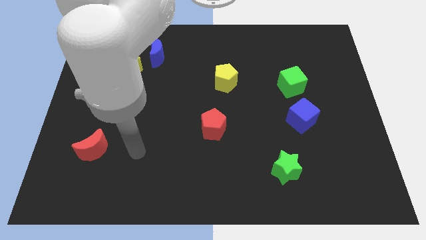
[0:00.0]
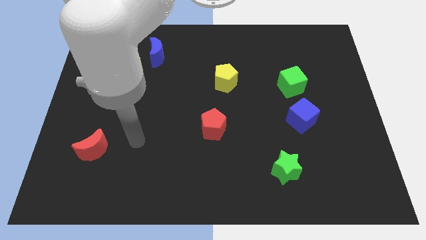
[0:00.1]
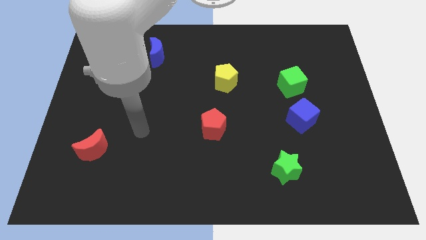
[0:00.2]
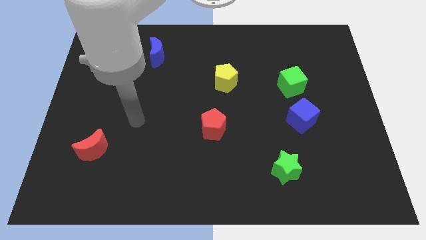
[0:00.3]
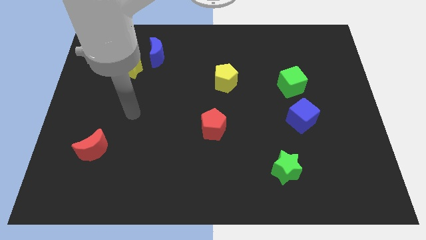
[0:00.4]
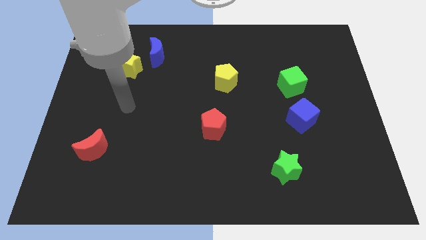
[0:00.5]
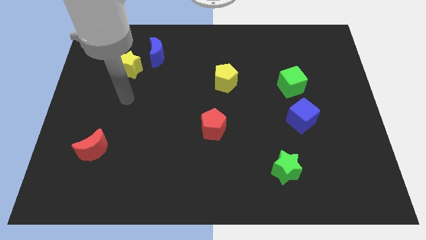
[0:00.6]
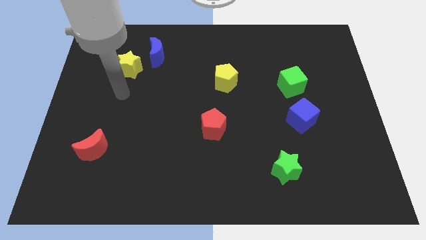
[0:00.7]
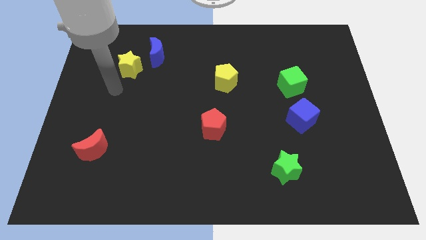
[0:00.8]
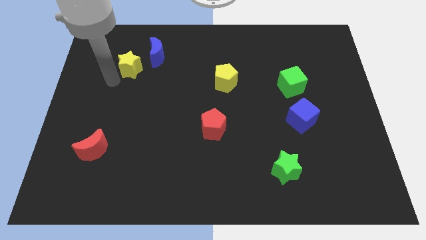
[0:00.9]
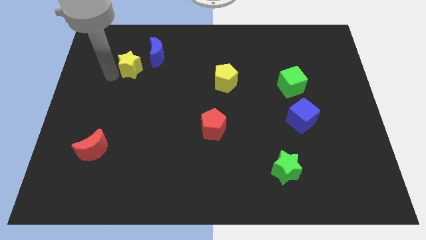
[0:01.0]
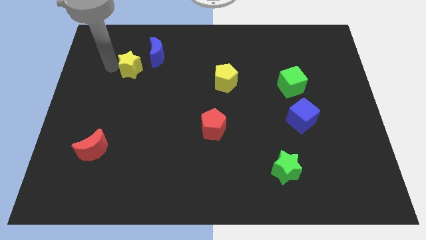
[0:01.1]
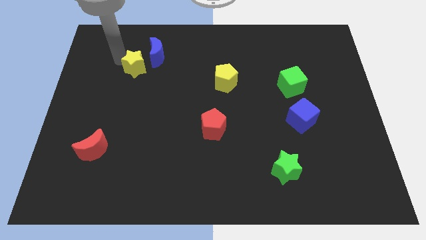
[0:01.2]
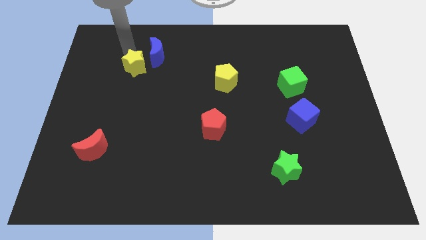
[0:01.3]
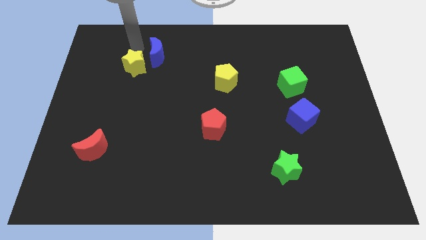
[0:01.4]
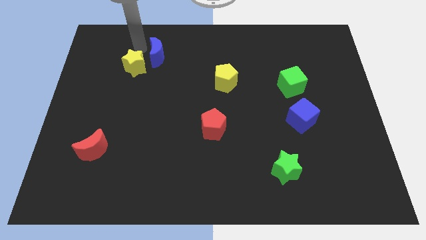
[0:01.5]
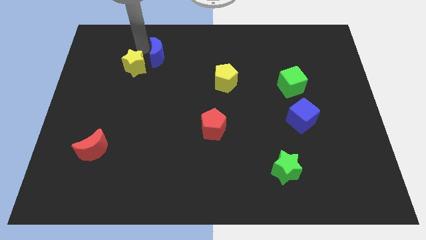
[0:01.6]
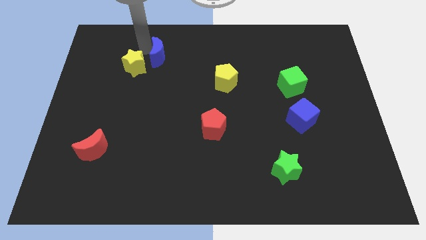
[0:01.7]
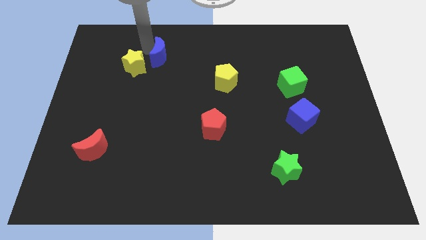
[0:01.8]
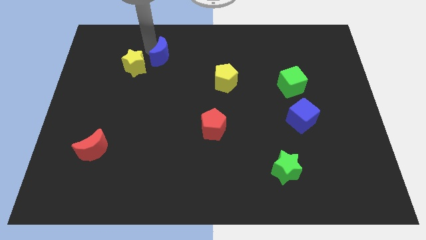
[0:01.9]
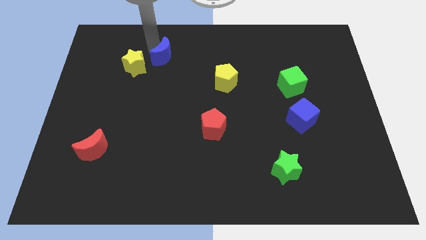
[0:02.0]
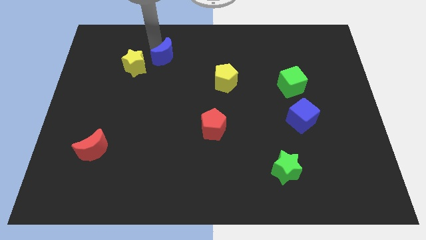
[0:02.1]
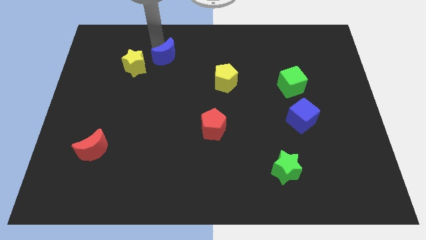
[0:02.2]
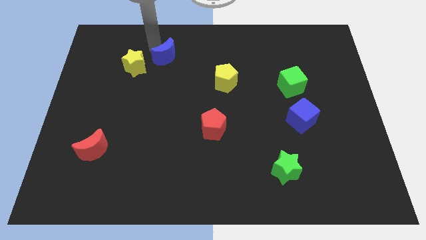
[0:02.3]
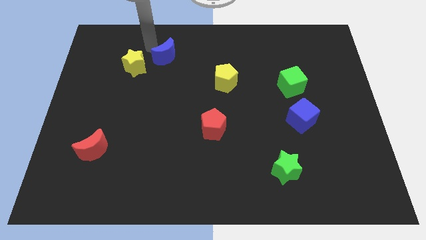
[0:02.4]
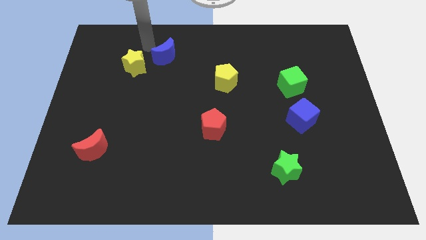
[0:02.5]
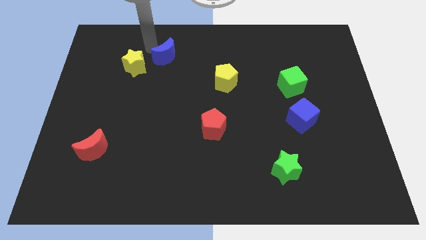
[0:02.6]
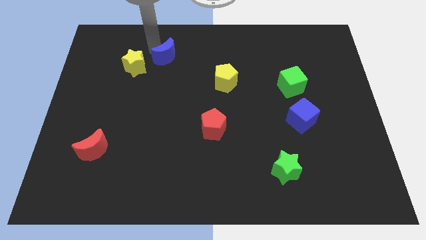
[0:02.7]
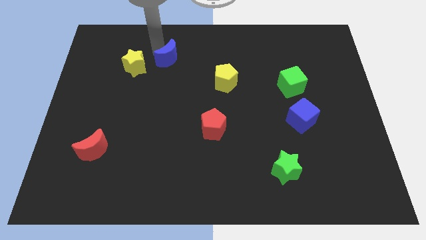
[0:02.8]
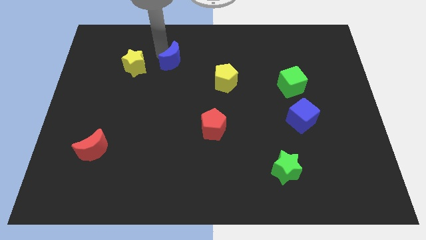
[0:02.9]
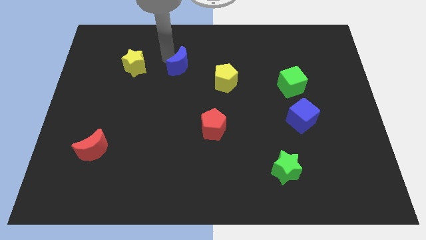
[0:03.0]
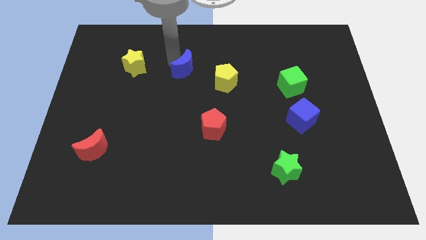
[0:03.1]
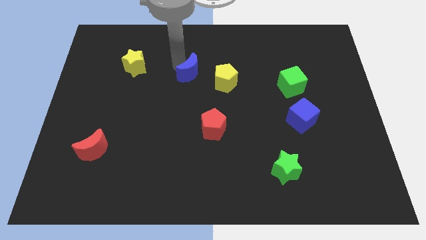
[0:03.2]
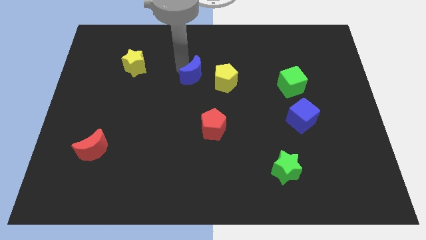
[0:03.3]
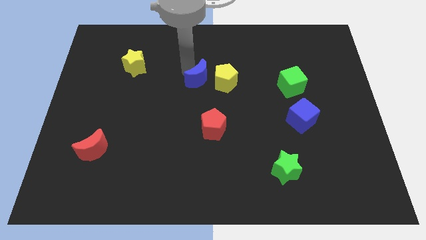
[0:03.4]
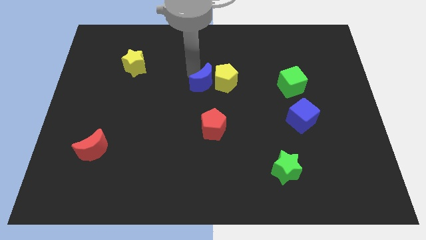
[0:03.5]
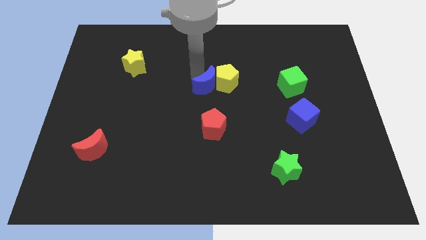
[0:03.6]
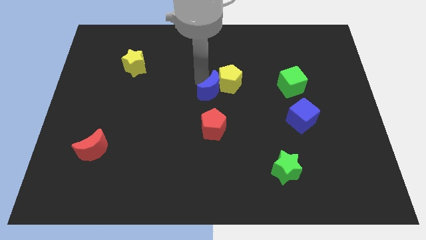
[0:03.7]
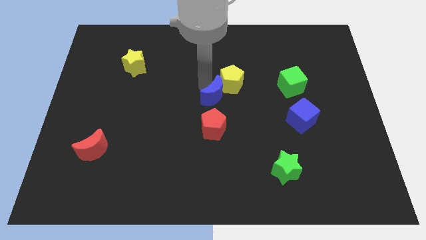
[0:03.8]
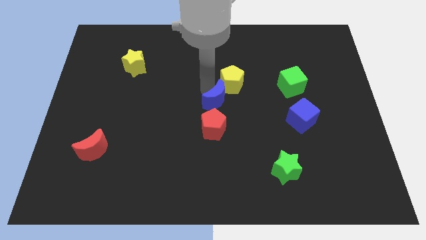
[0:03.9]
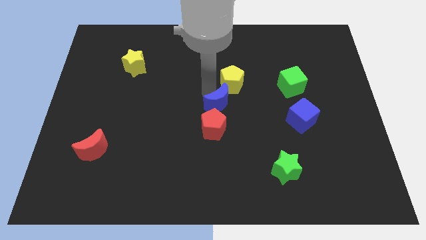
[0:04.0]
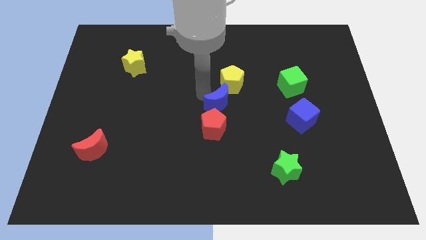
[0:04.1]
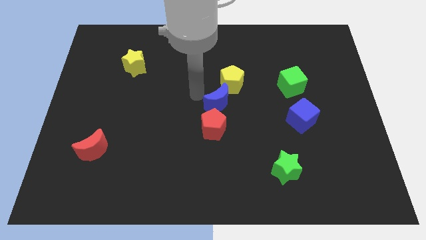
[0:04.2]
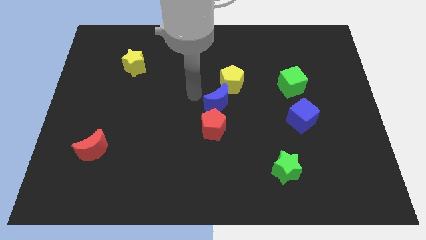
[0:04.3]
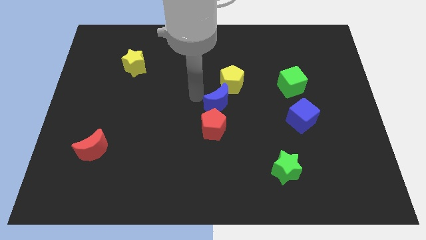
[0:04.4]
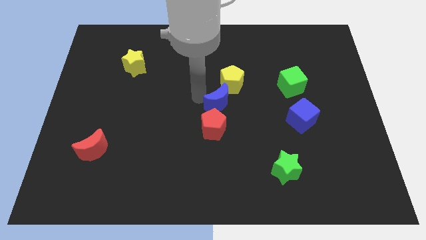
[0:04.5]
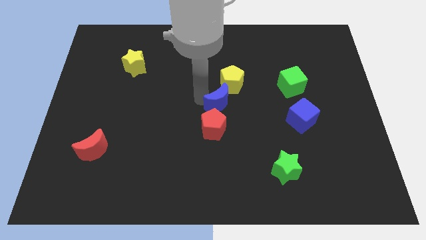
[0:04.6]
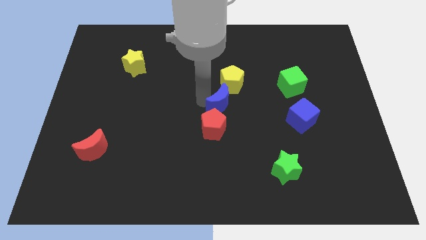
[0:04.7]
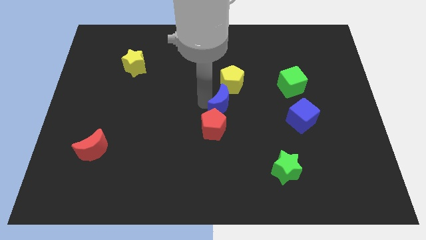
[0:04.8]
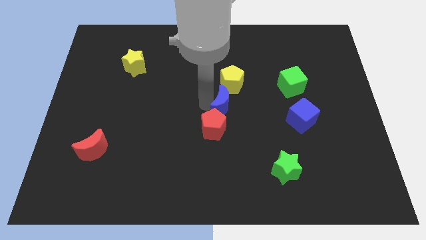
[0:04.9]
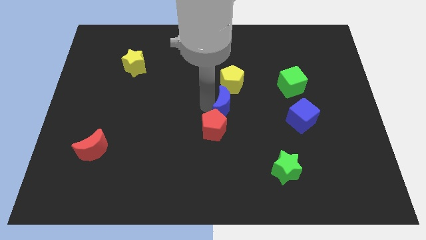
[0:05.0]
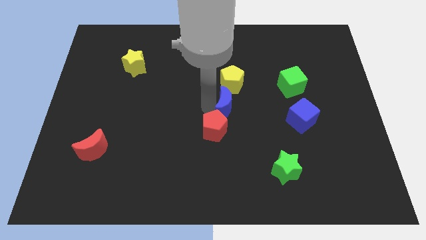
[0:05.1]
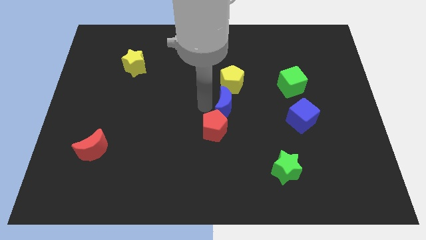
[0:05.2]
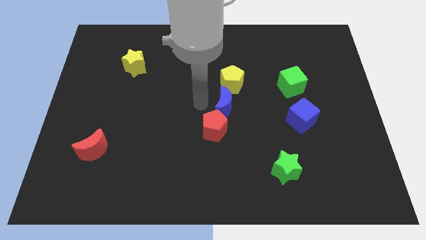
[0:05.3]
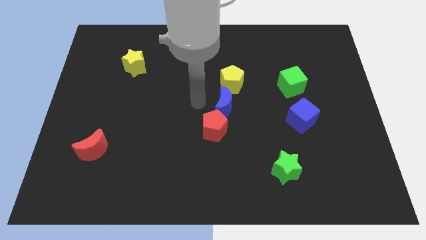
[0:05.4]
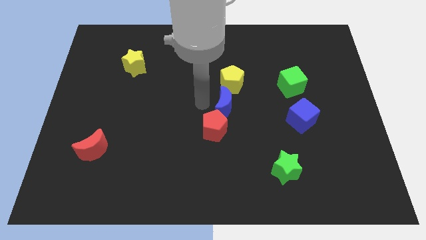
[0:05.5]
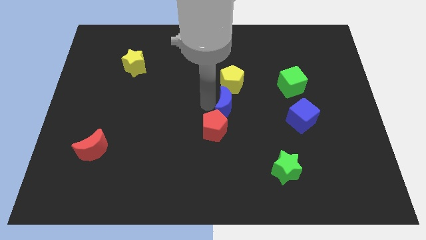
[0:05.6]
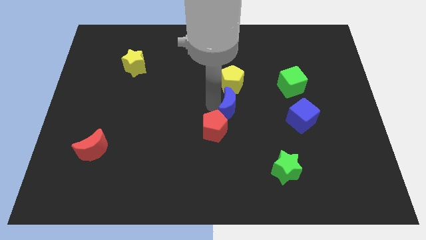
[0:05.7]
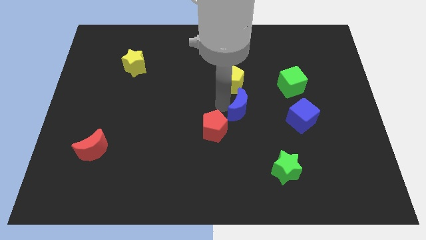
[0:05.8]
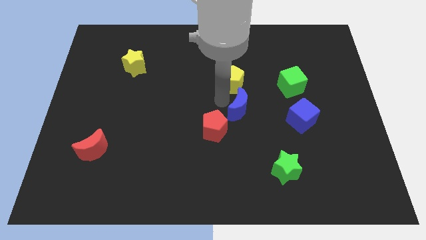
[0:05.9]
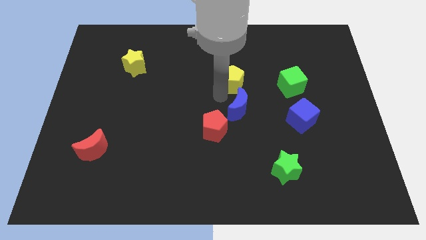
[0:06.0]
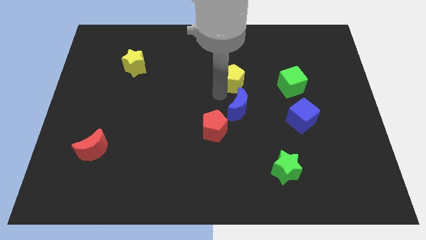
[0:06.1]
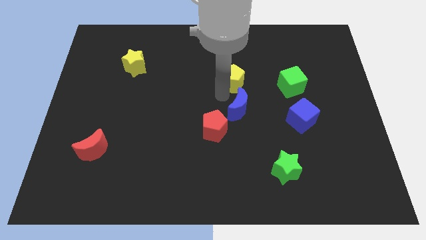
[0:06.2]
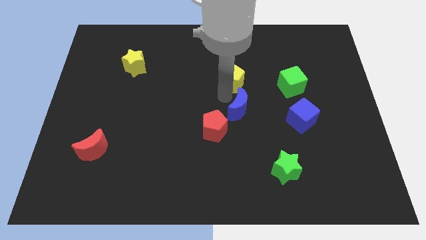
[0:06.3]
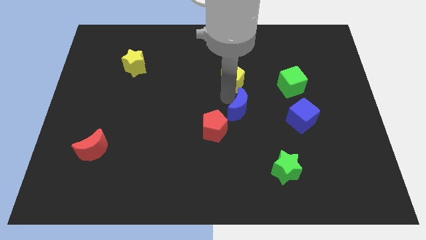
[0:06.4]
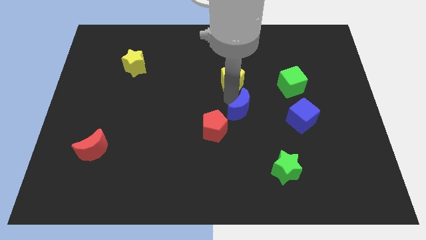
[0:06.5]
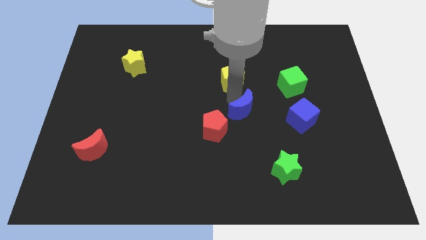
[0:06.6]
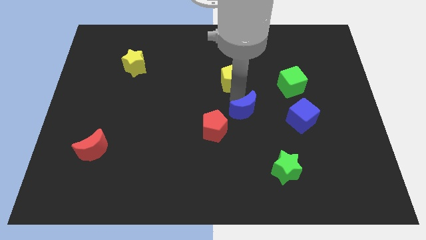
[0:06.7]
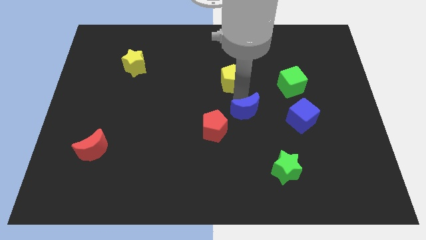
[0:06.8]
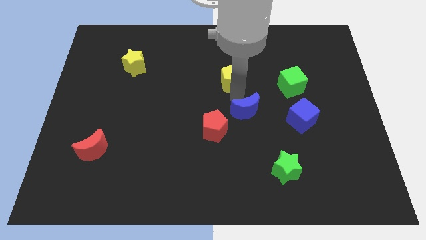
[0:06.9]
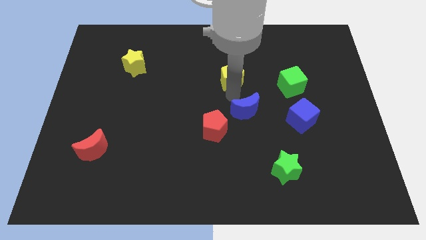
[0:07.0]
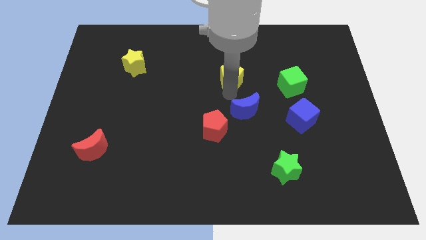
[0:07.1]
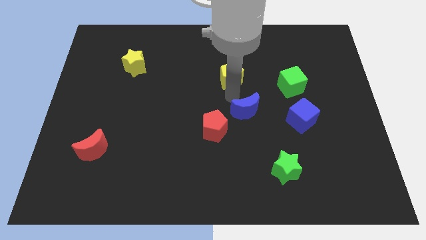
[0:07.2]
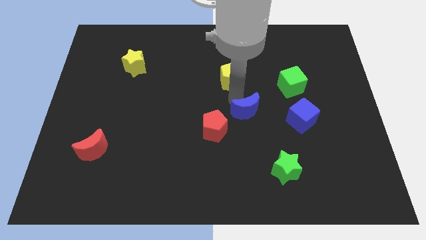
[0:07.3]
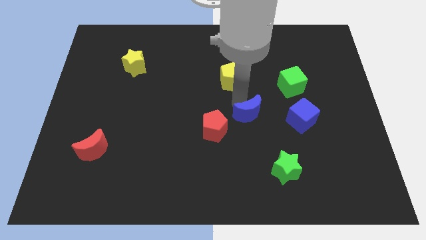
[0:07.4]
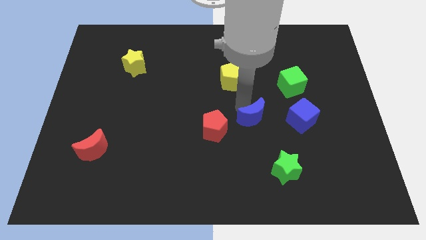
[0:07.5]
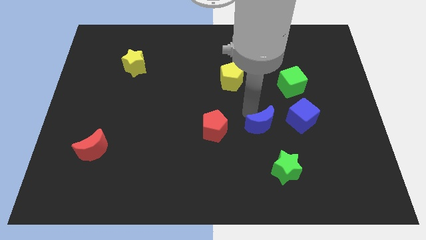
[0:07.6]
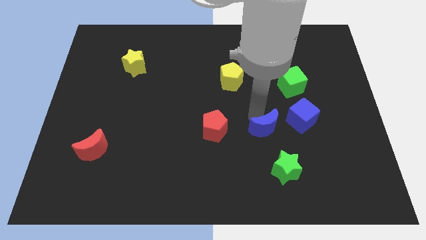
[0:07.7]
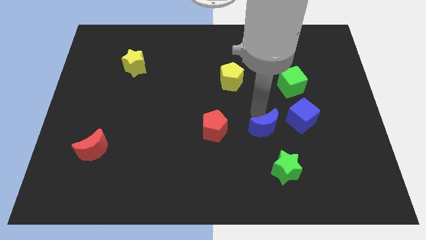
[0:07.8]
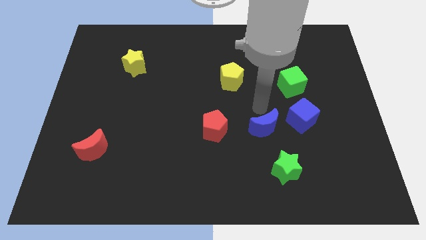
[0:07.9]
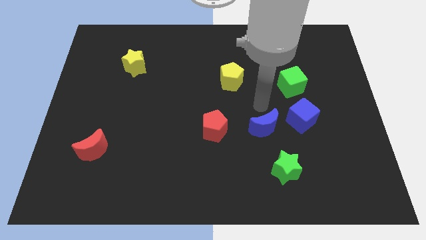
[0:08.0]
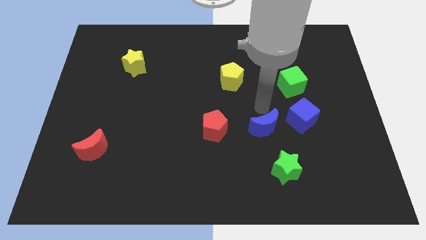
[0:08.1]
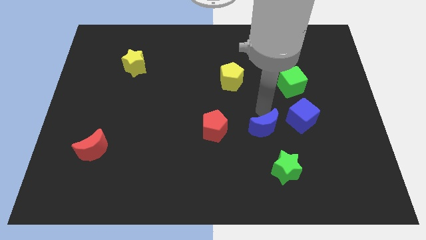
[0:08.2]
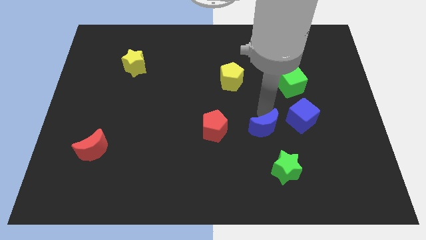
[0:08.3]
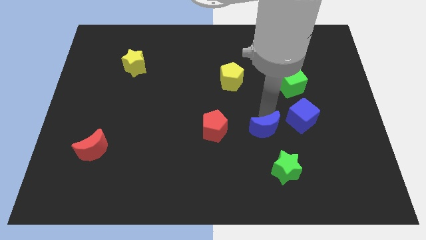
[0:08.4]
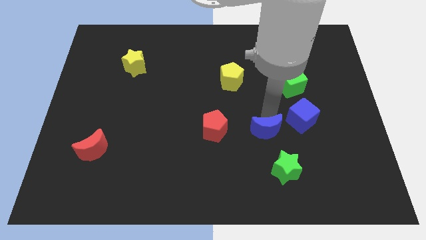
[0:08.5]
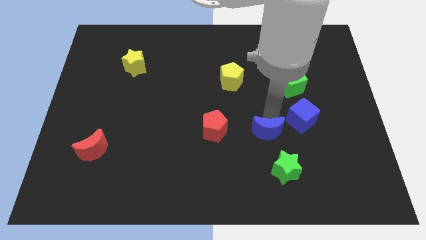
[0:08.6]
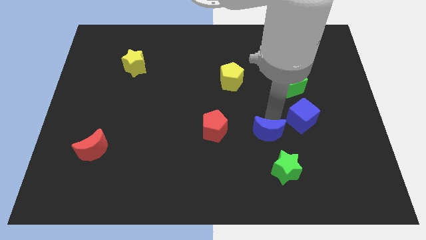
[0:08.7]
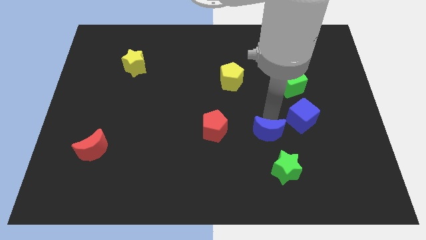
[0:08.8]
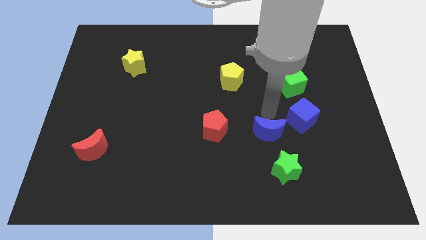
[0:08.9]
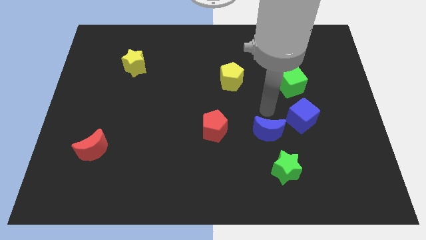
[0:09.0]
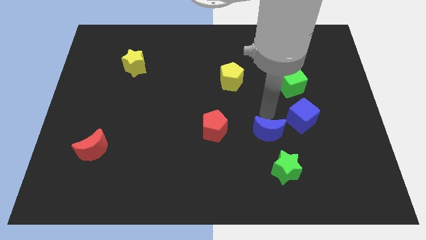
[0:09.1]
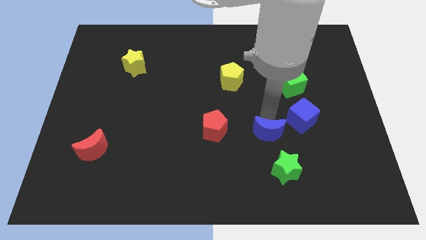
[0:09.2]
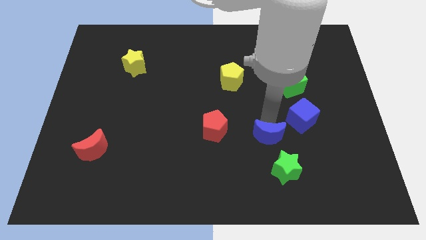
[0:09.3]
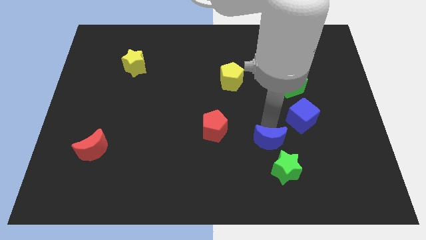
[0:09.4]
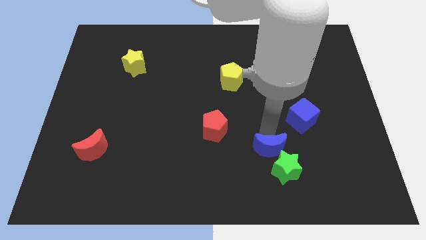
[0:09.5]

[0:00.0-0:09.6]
push the blue moon to the green star
